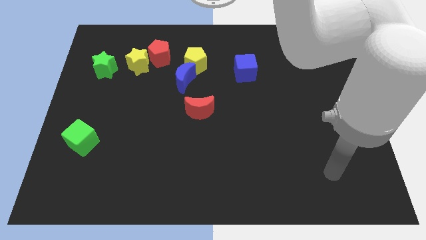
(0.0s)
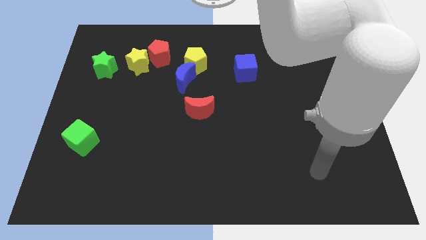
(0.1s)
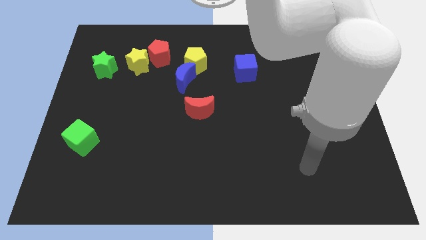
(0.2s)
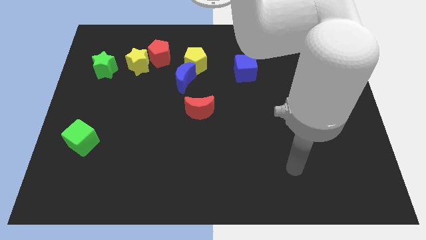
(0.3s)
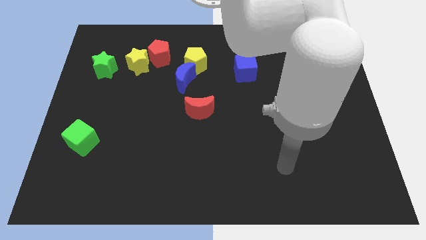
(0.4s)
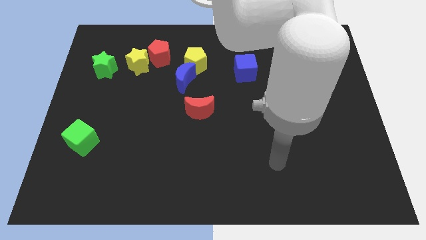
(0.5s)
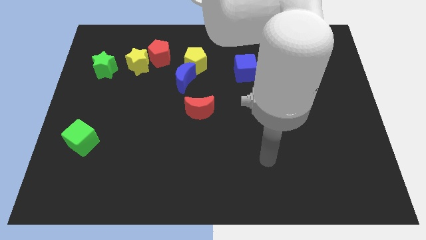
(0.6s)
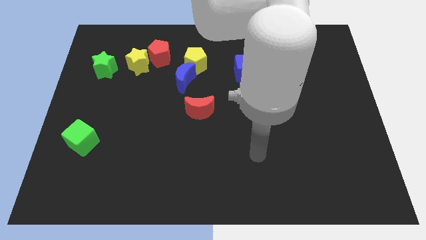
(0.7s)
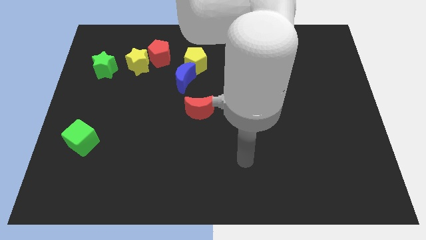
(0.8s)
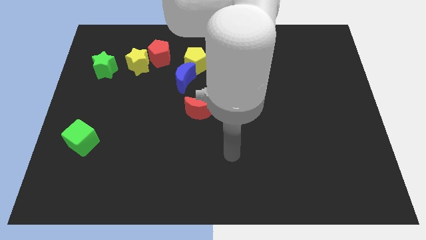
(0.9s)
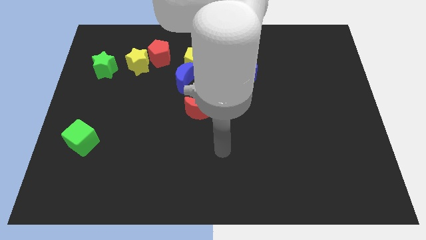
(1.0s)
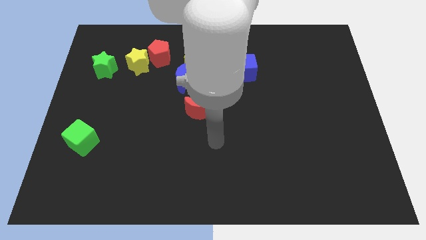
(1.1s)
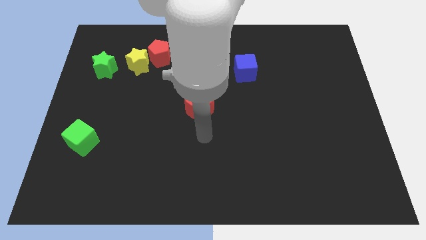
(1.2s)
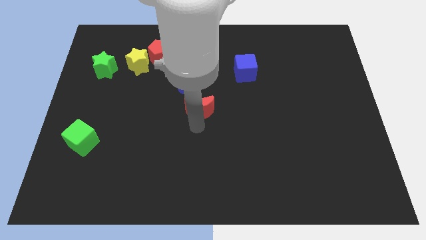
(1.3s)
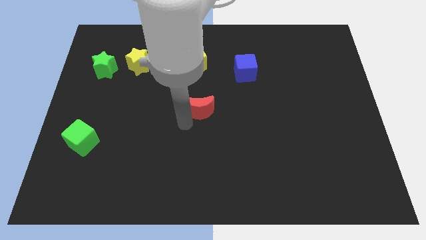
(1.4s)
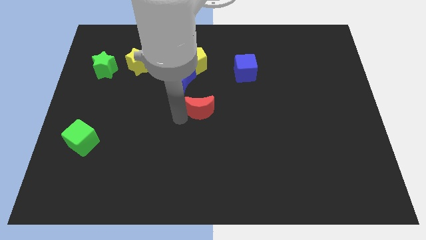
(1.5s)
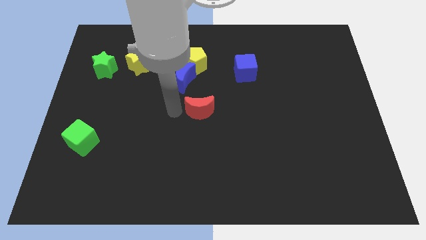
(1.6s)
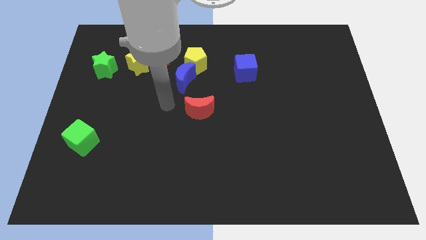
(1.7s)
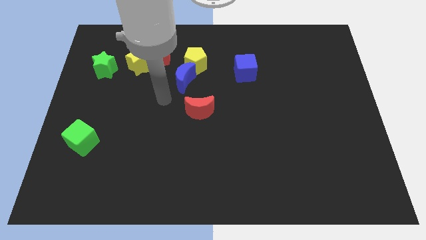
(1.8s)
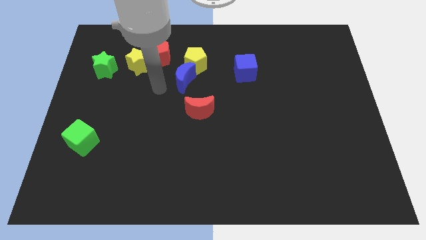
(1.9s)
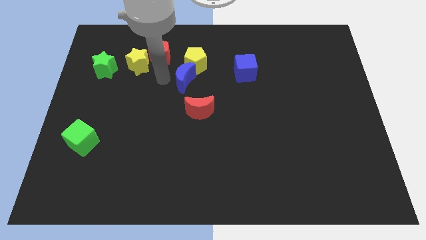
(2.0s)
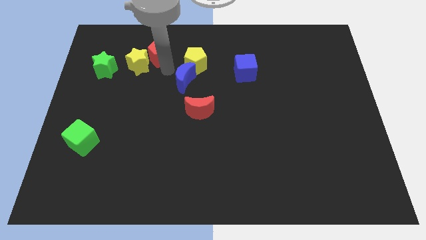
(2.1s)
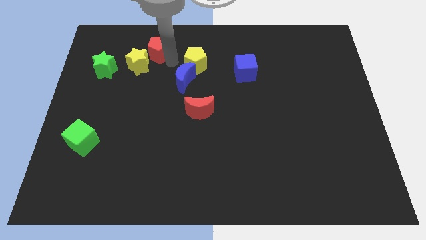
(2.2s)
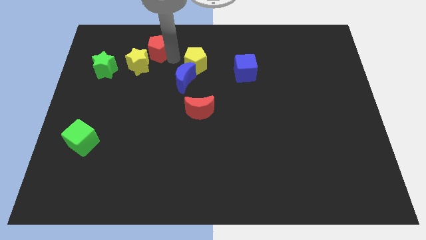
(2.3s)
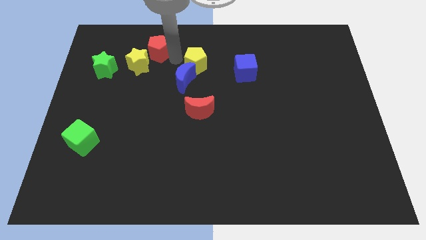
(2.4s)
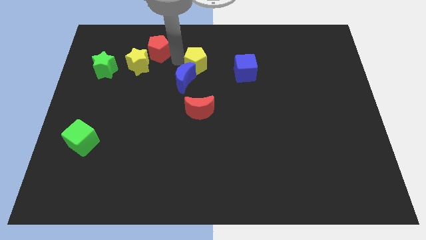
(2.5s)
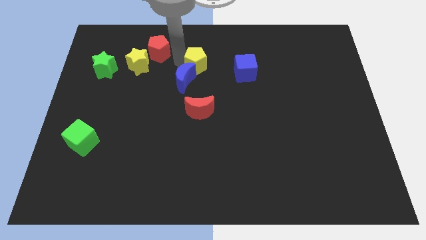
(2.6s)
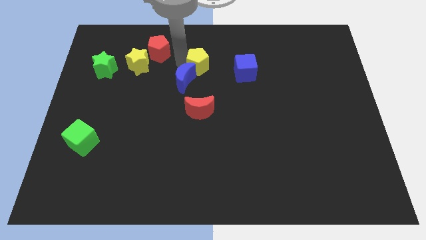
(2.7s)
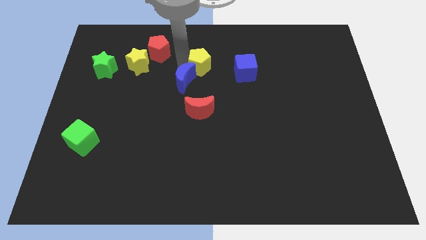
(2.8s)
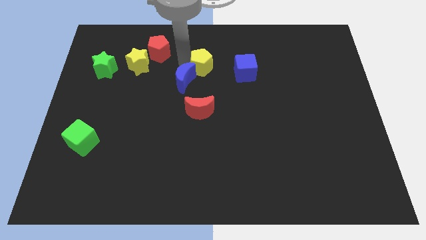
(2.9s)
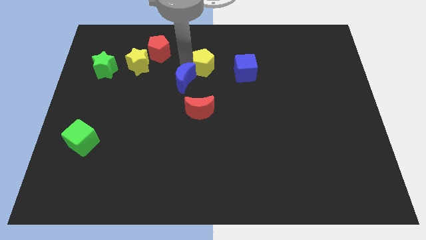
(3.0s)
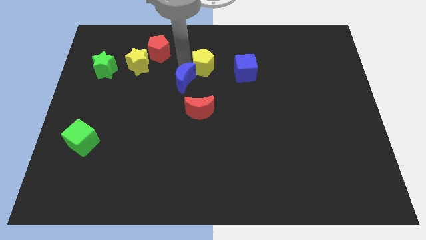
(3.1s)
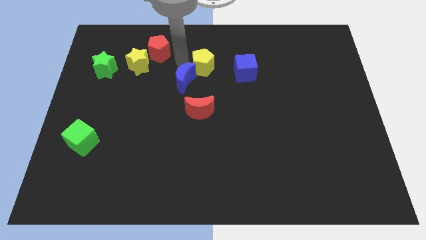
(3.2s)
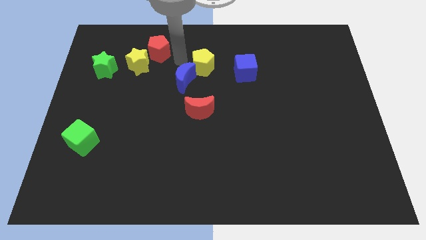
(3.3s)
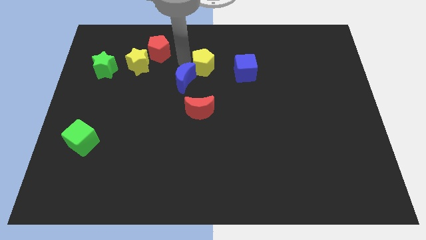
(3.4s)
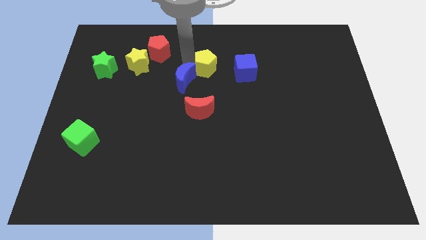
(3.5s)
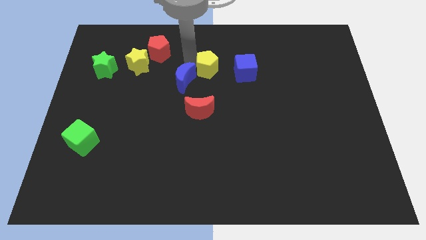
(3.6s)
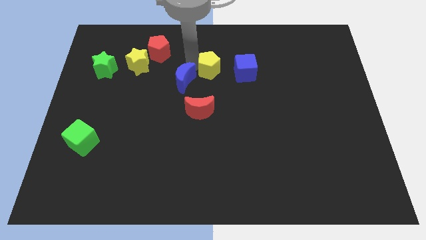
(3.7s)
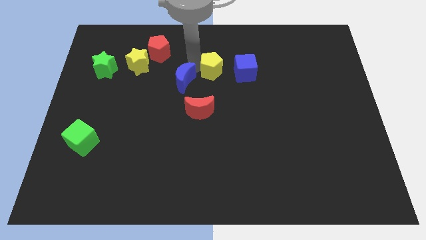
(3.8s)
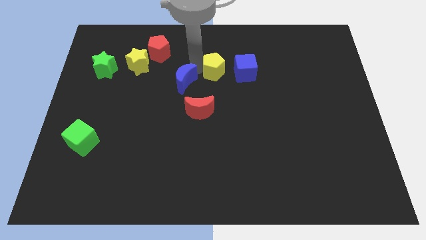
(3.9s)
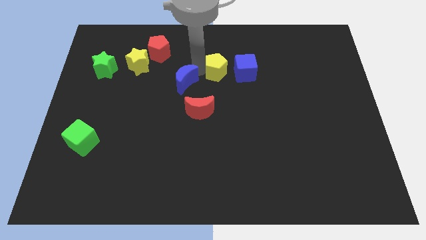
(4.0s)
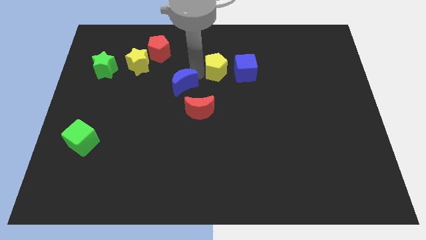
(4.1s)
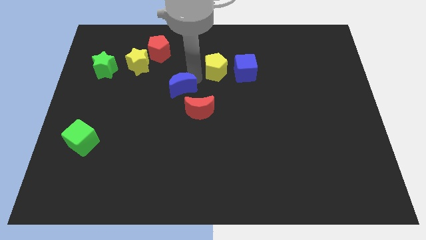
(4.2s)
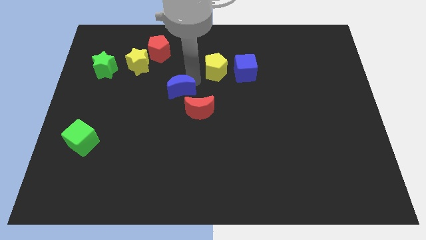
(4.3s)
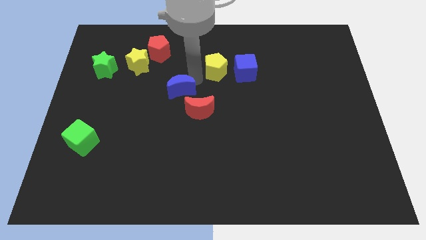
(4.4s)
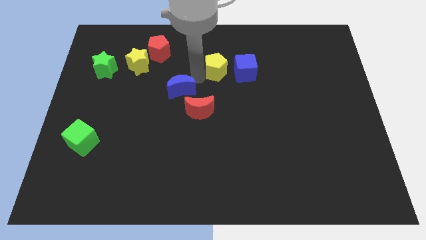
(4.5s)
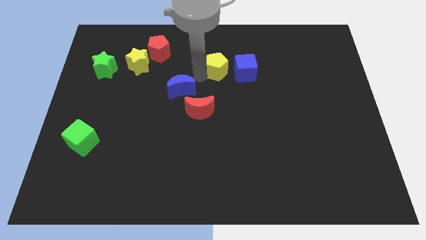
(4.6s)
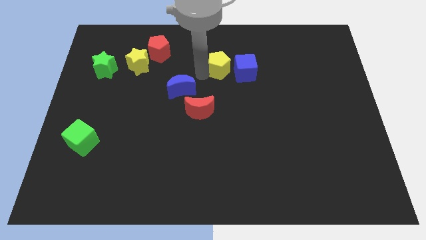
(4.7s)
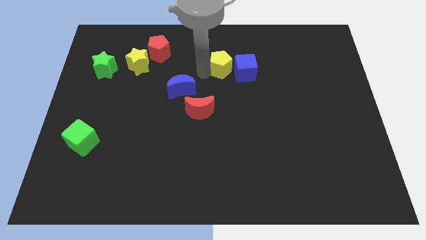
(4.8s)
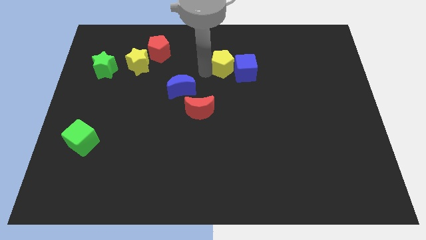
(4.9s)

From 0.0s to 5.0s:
push the yellow pentagon to the right slightly

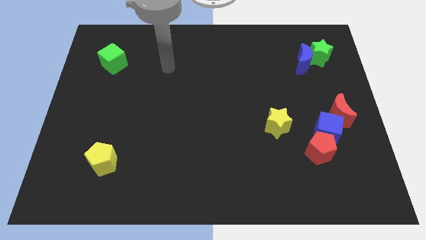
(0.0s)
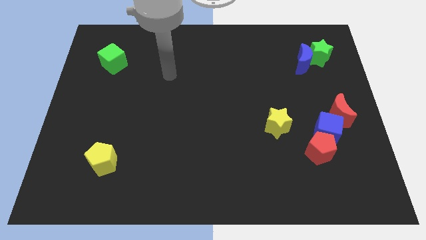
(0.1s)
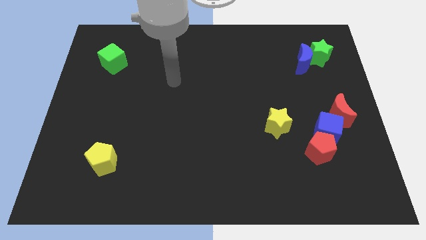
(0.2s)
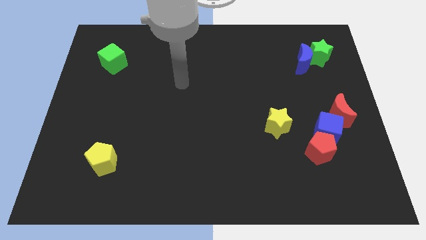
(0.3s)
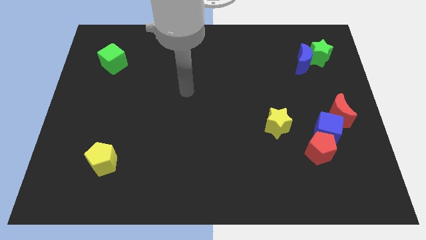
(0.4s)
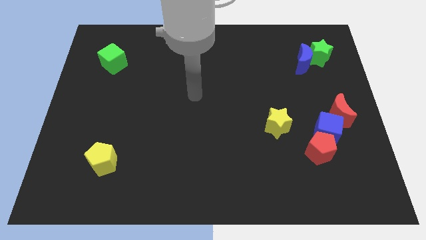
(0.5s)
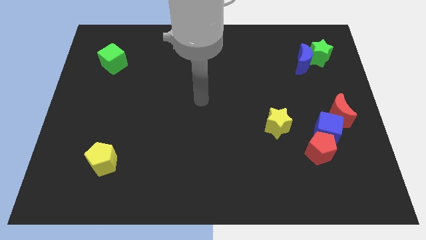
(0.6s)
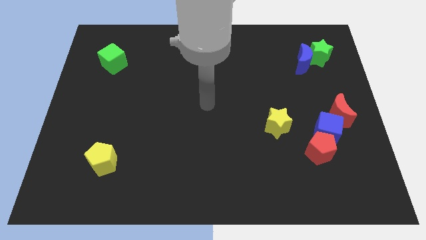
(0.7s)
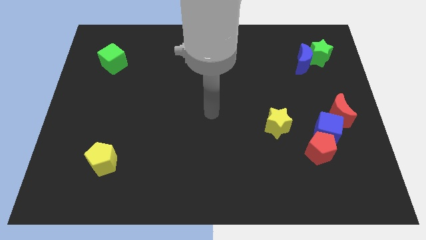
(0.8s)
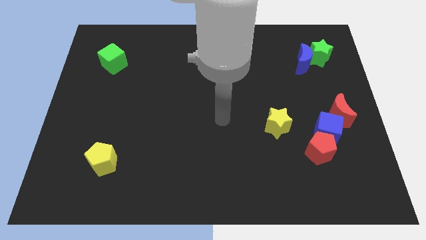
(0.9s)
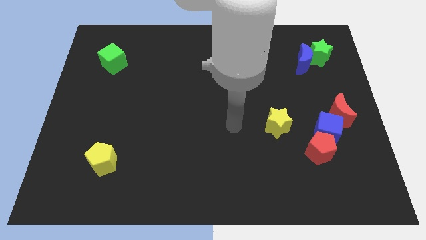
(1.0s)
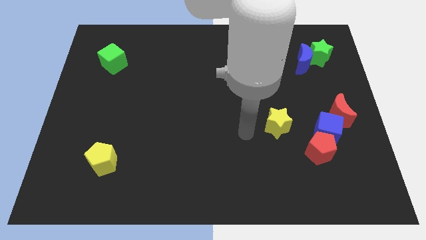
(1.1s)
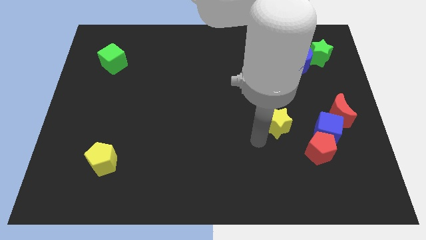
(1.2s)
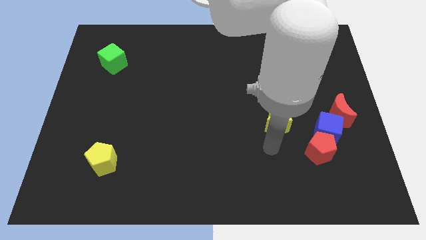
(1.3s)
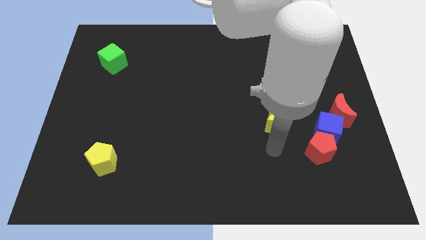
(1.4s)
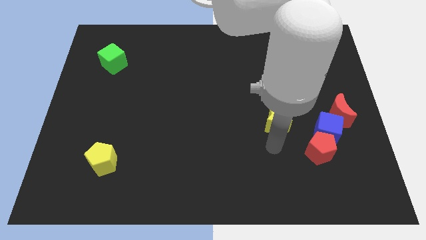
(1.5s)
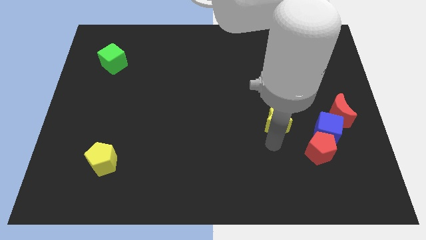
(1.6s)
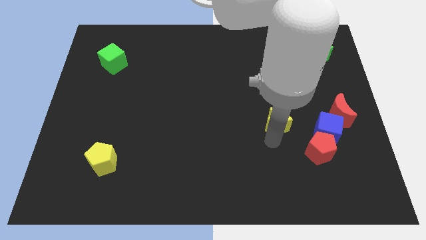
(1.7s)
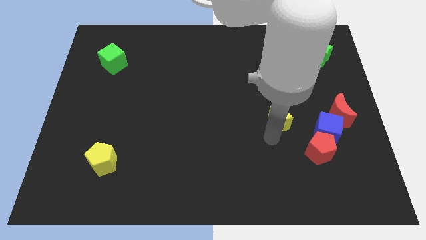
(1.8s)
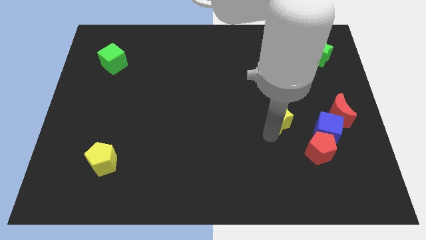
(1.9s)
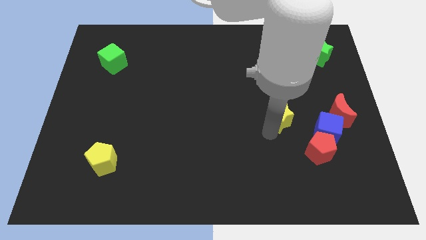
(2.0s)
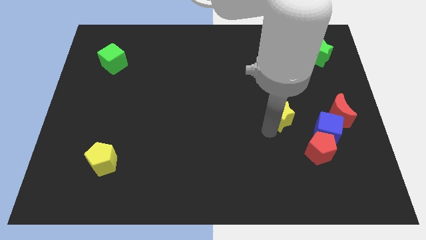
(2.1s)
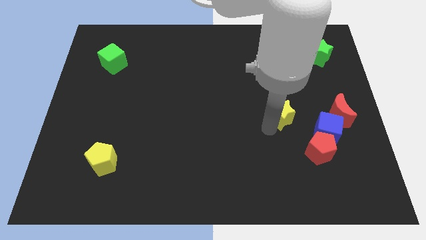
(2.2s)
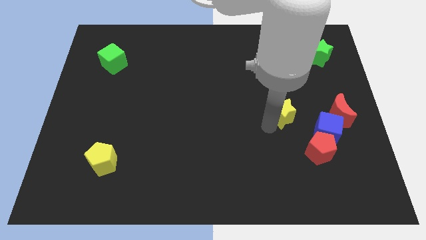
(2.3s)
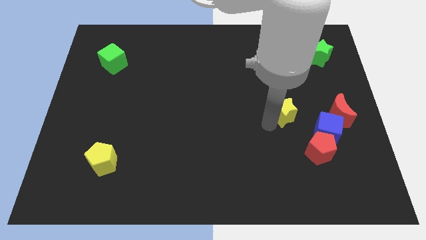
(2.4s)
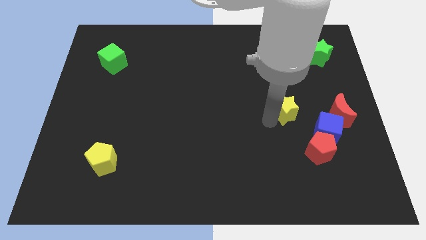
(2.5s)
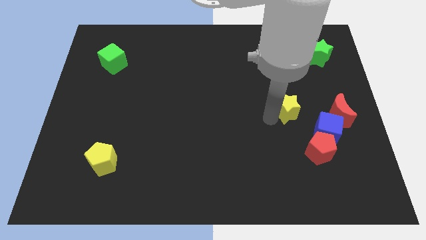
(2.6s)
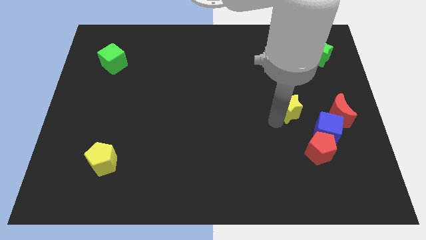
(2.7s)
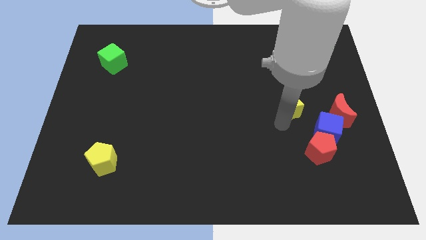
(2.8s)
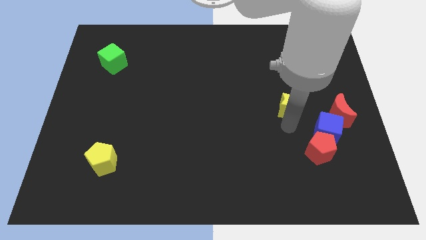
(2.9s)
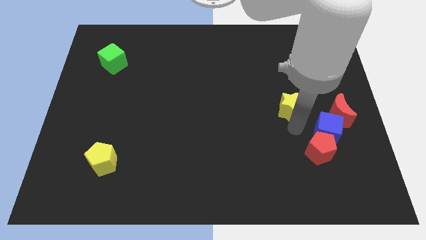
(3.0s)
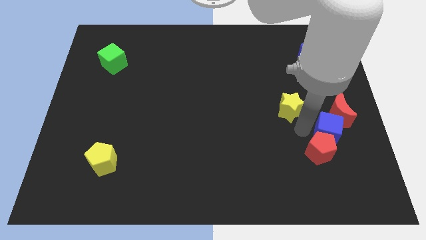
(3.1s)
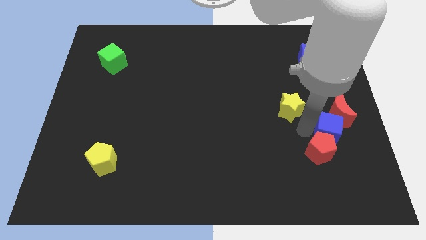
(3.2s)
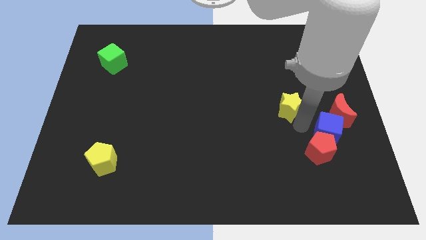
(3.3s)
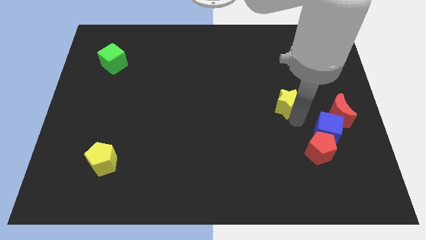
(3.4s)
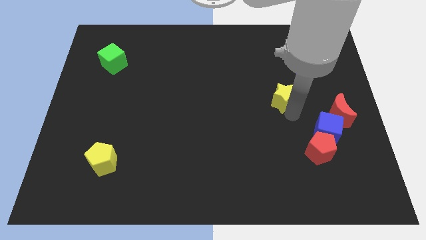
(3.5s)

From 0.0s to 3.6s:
push the yellow star a bit up
